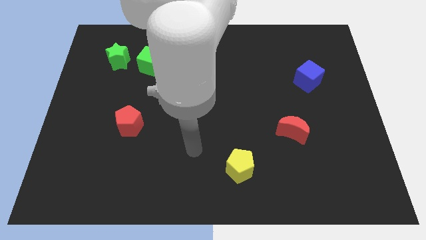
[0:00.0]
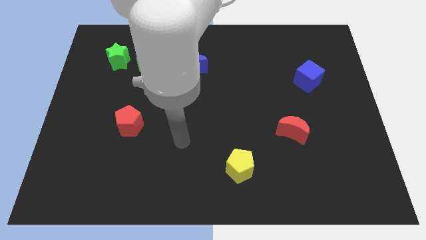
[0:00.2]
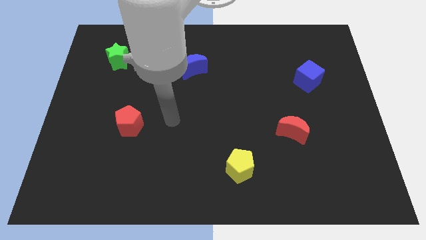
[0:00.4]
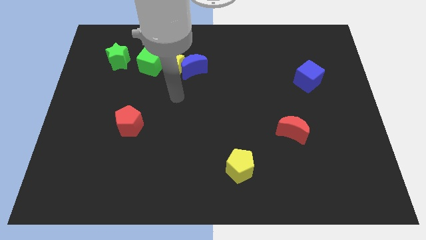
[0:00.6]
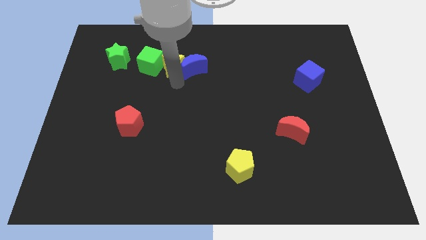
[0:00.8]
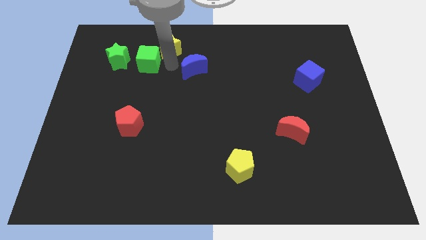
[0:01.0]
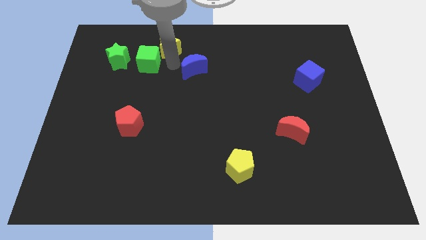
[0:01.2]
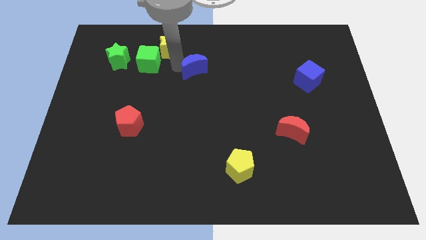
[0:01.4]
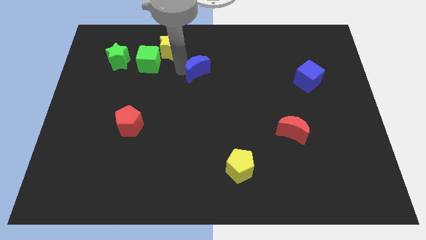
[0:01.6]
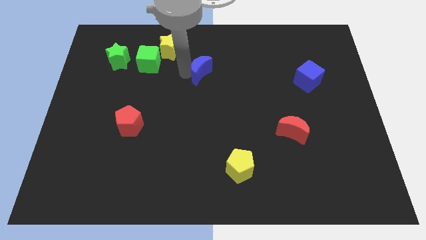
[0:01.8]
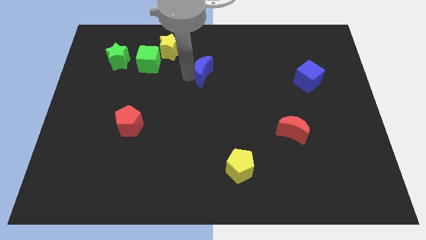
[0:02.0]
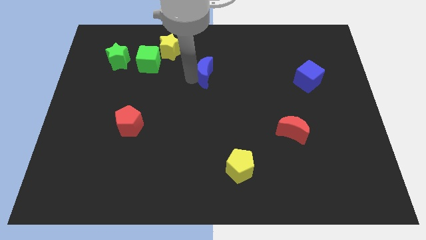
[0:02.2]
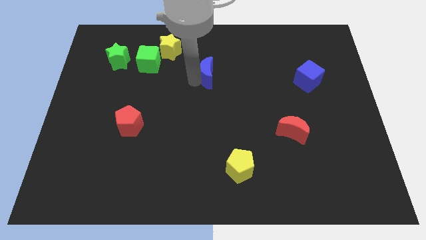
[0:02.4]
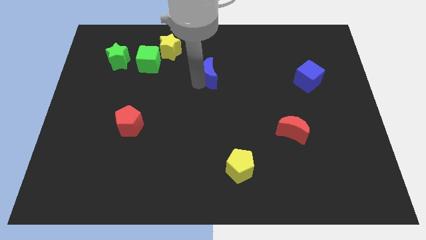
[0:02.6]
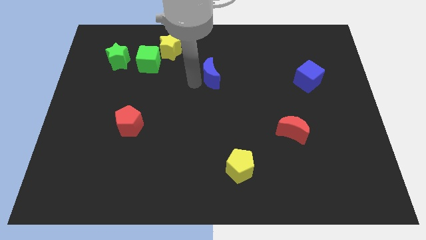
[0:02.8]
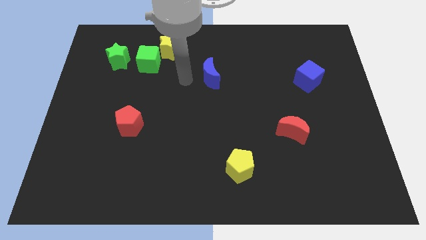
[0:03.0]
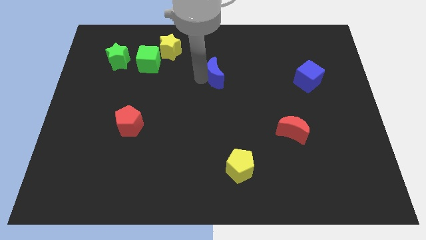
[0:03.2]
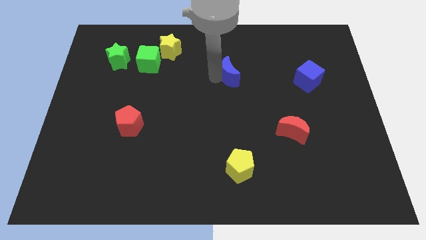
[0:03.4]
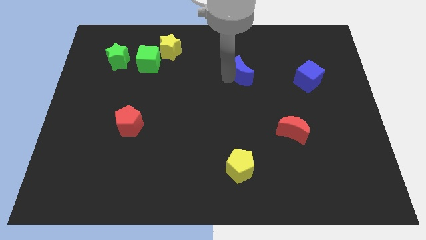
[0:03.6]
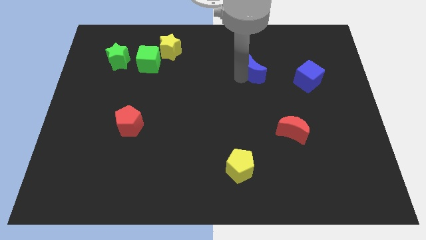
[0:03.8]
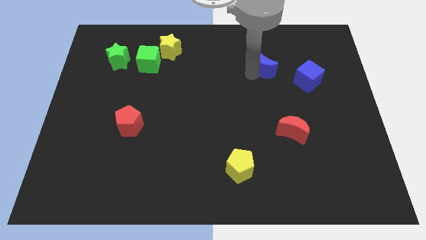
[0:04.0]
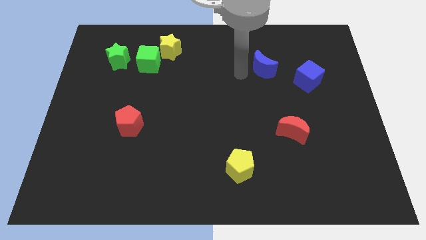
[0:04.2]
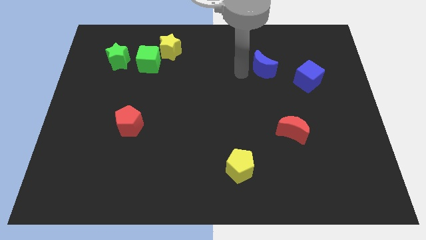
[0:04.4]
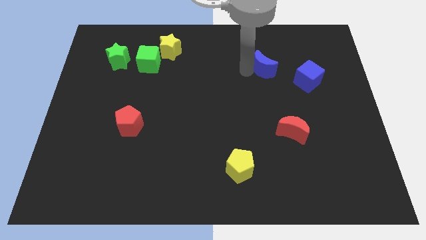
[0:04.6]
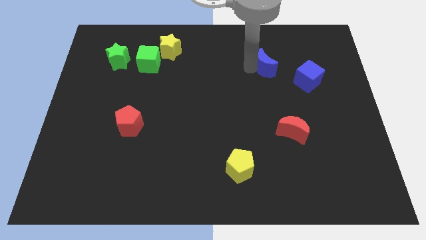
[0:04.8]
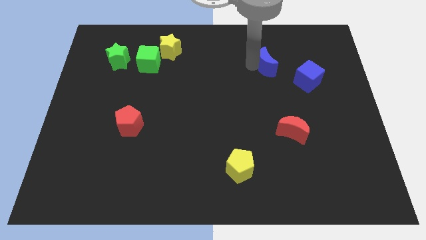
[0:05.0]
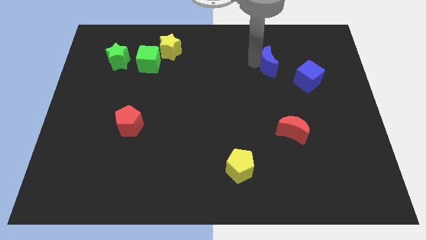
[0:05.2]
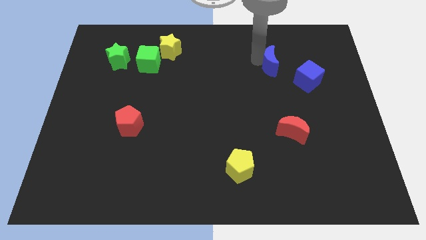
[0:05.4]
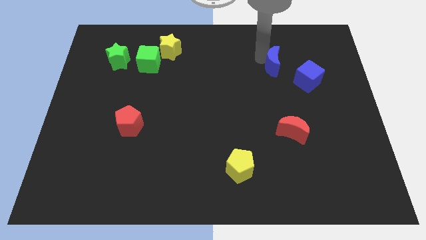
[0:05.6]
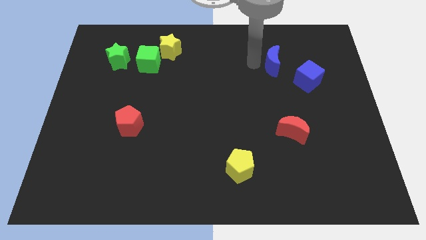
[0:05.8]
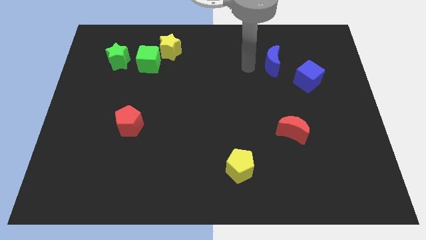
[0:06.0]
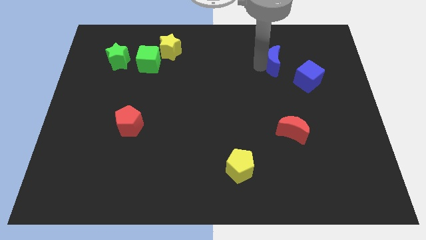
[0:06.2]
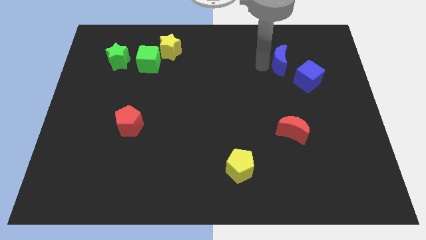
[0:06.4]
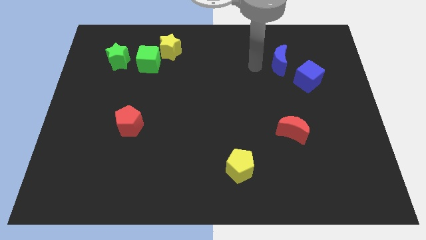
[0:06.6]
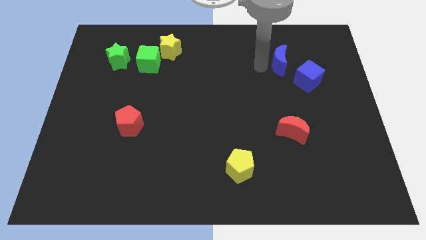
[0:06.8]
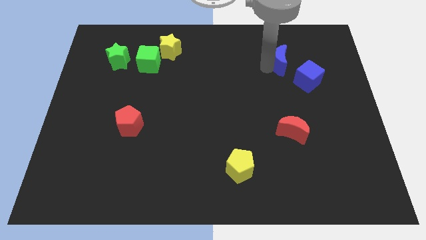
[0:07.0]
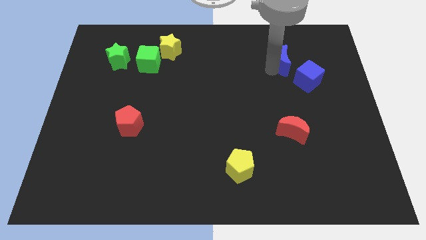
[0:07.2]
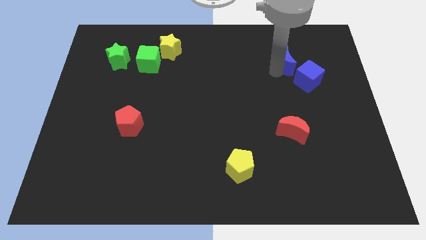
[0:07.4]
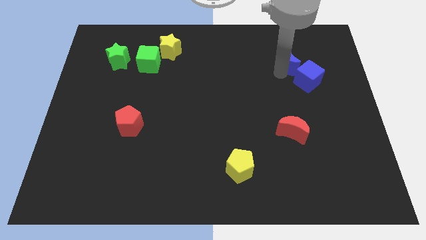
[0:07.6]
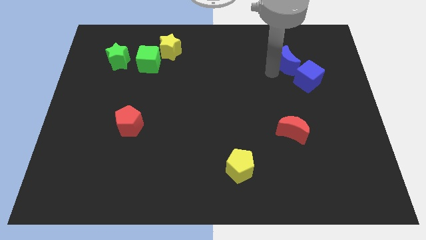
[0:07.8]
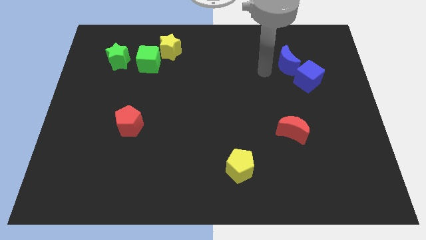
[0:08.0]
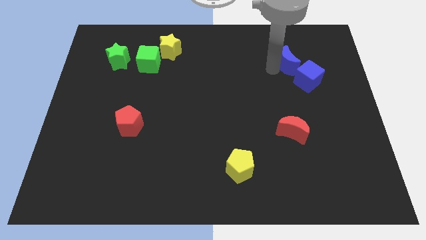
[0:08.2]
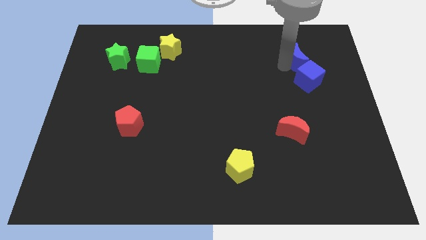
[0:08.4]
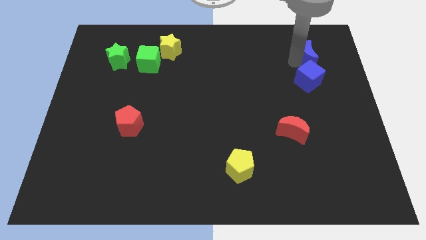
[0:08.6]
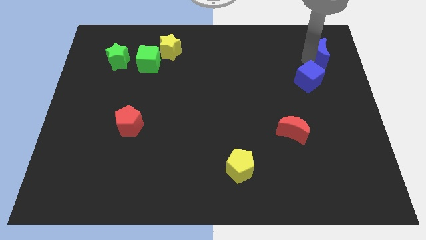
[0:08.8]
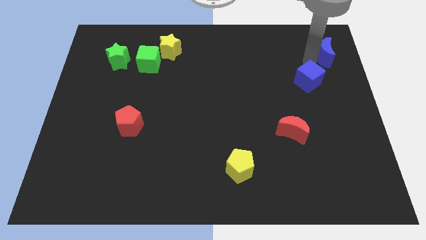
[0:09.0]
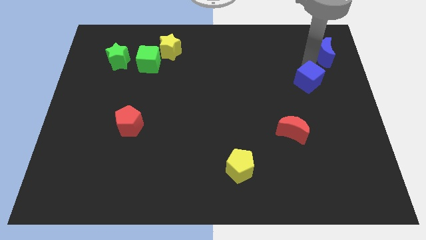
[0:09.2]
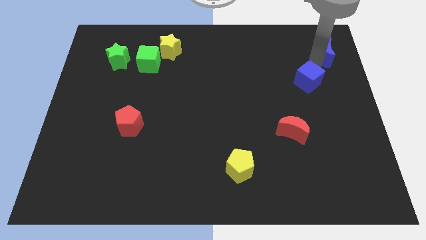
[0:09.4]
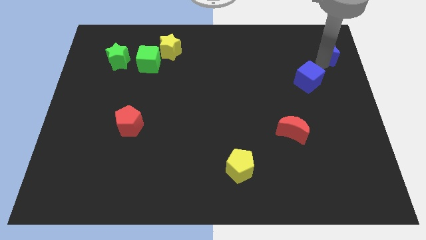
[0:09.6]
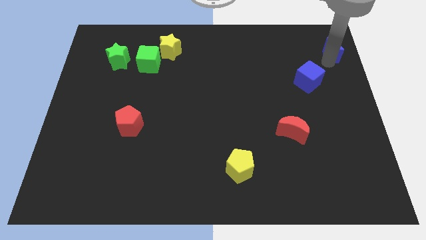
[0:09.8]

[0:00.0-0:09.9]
slide the blue moon to the upper right corner

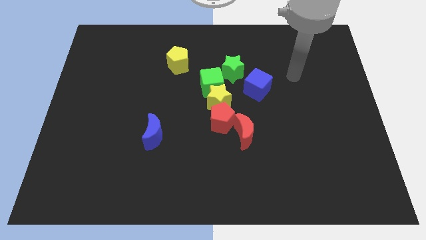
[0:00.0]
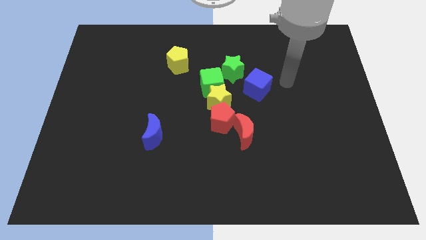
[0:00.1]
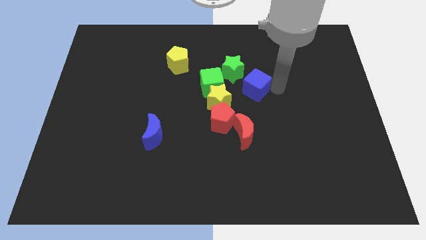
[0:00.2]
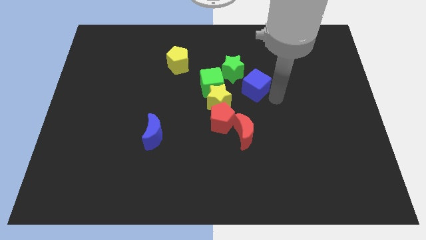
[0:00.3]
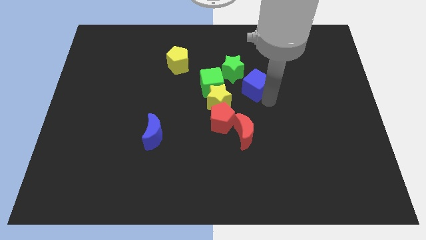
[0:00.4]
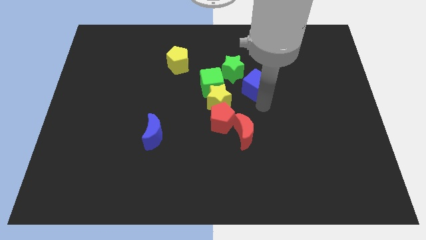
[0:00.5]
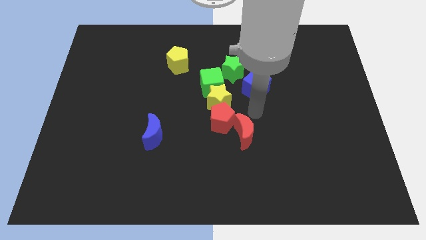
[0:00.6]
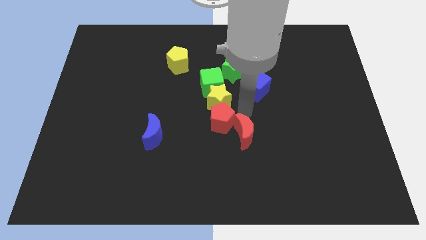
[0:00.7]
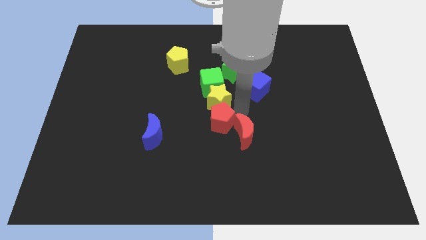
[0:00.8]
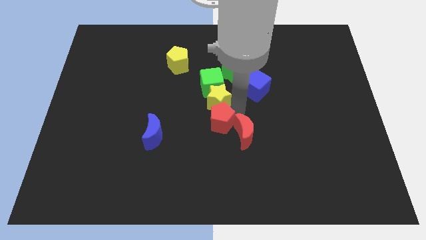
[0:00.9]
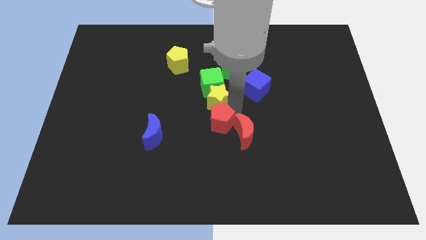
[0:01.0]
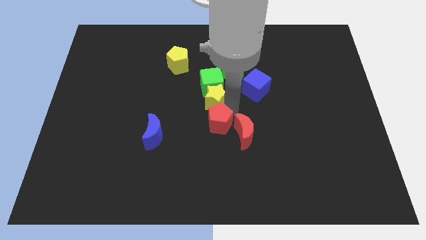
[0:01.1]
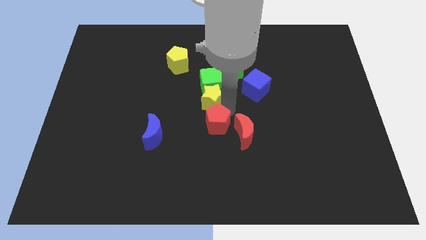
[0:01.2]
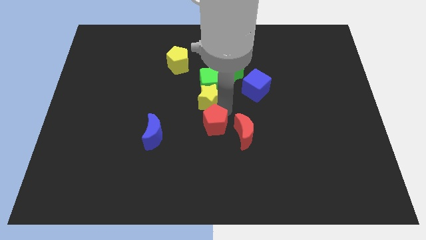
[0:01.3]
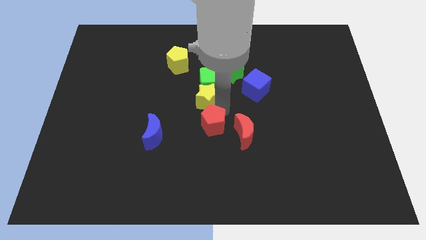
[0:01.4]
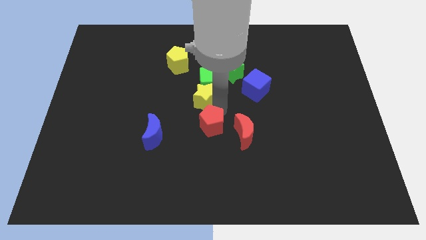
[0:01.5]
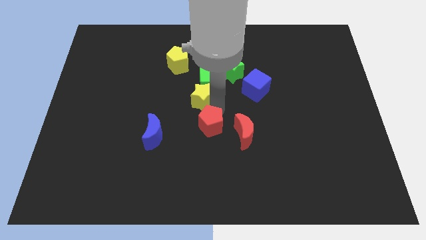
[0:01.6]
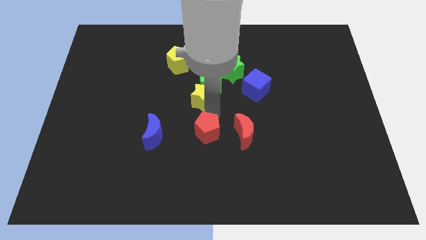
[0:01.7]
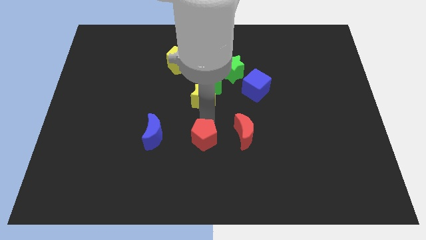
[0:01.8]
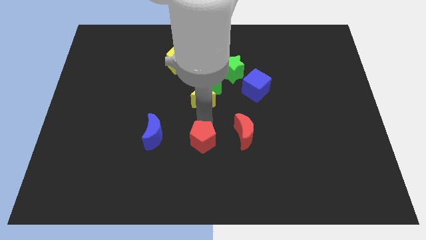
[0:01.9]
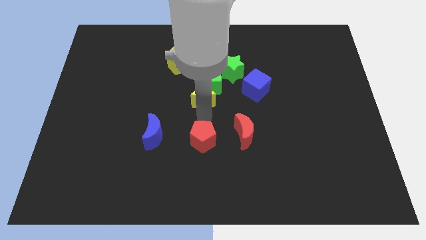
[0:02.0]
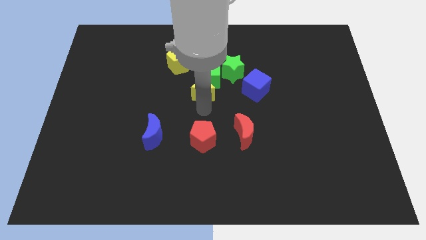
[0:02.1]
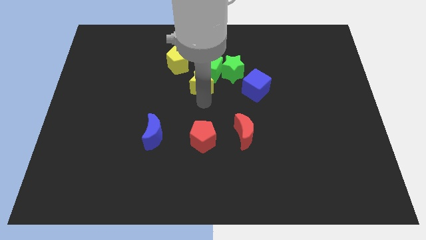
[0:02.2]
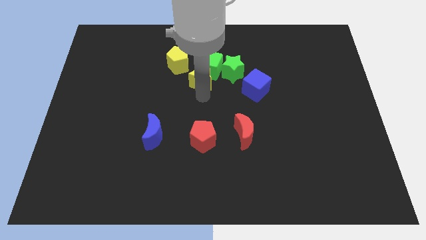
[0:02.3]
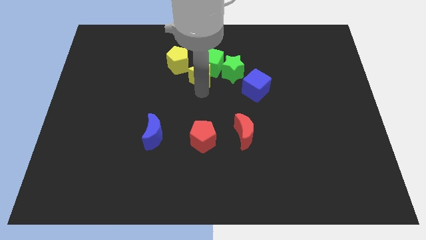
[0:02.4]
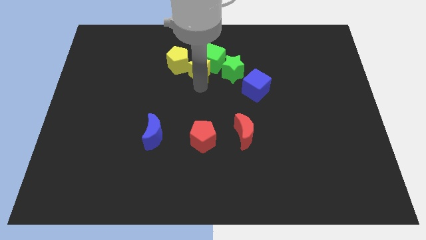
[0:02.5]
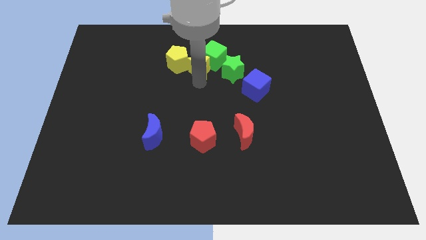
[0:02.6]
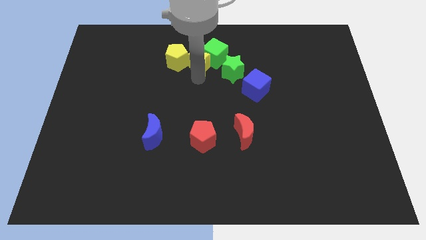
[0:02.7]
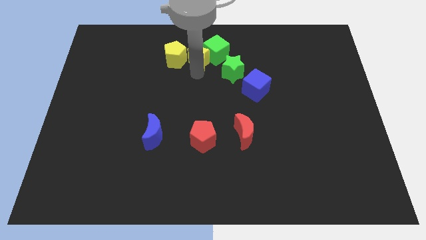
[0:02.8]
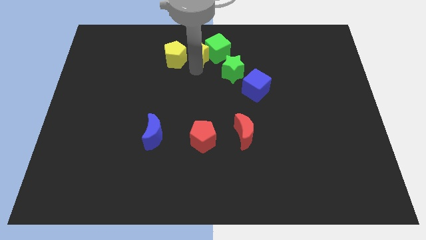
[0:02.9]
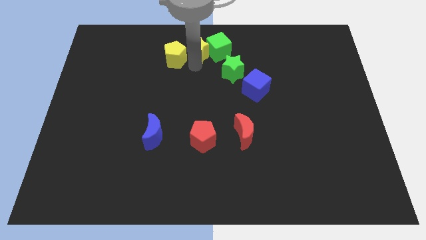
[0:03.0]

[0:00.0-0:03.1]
slide the yellow star to the top side
